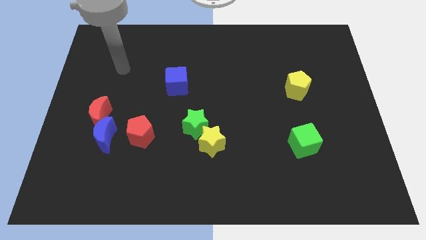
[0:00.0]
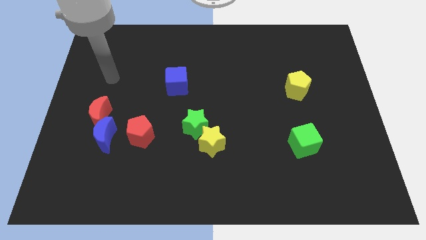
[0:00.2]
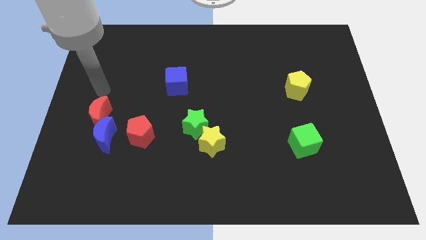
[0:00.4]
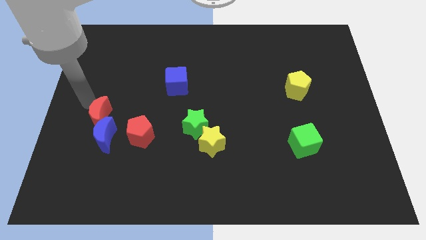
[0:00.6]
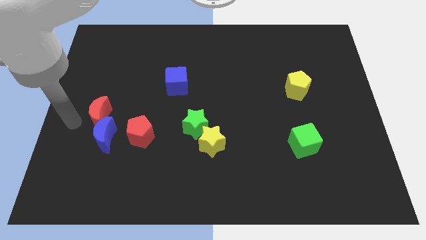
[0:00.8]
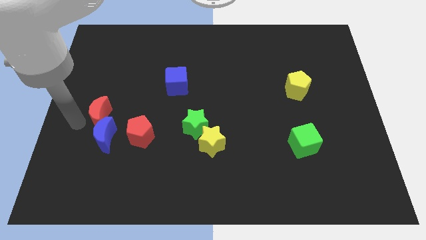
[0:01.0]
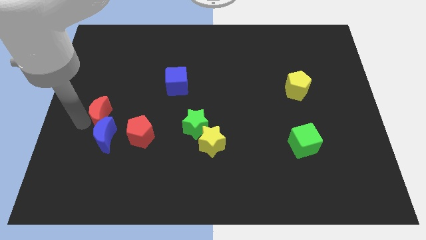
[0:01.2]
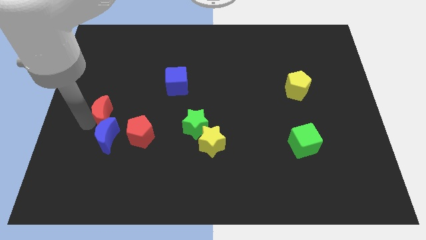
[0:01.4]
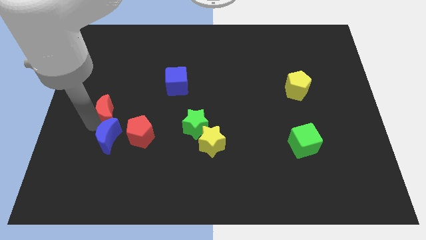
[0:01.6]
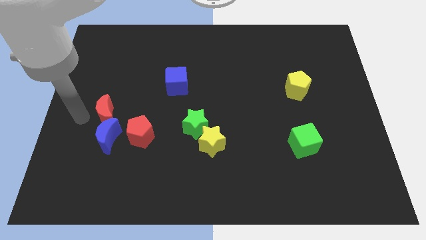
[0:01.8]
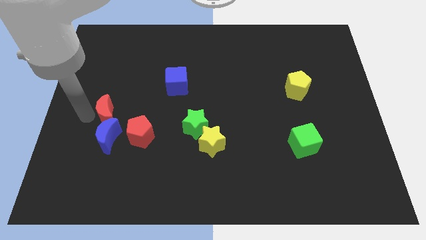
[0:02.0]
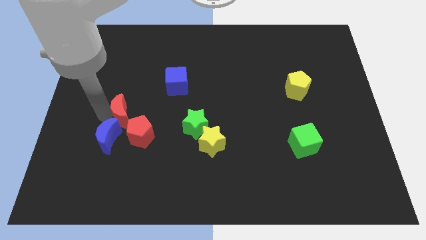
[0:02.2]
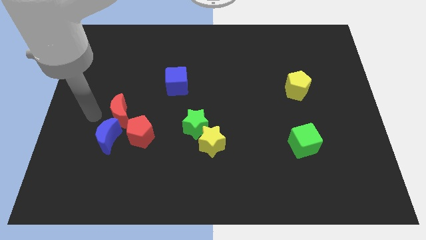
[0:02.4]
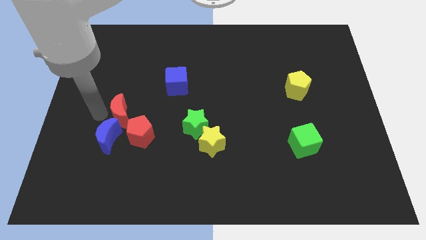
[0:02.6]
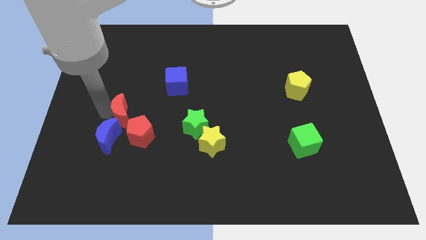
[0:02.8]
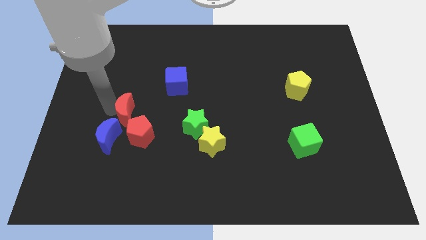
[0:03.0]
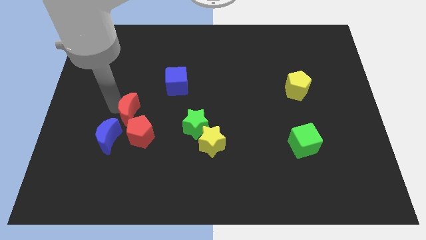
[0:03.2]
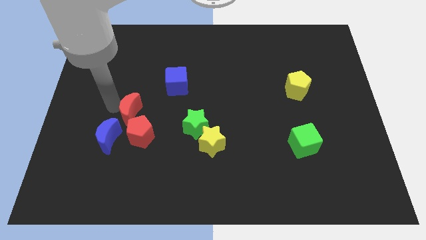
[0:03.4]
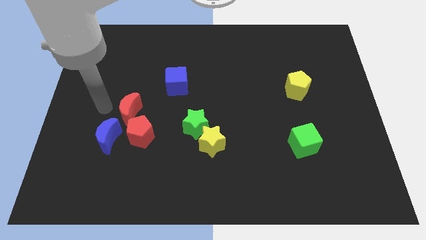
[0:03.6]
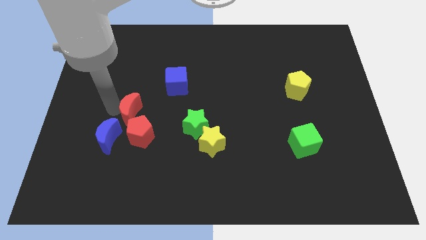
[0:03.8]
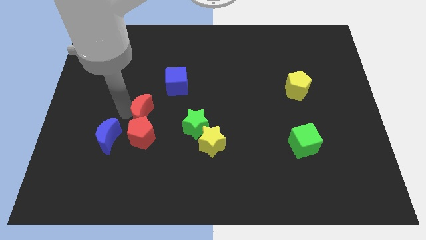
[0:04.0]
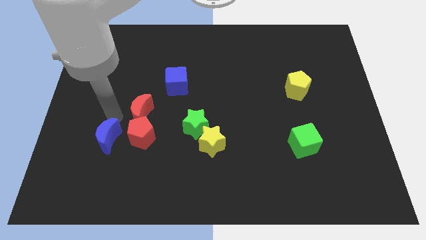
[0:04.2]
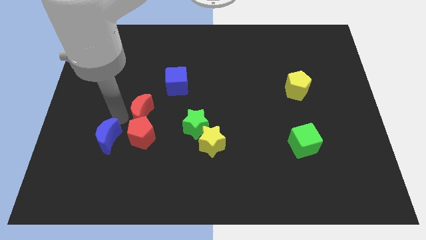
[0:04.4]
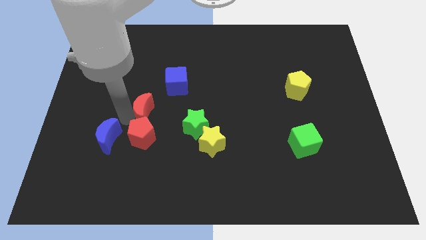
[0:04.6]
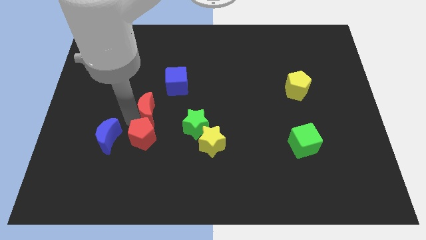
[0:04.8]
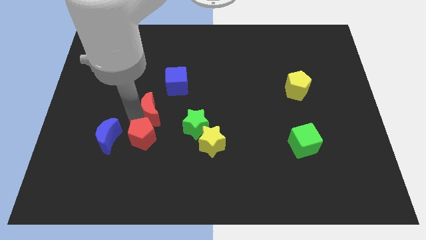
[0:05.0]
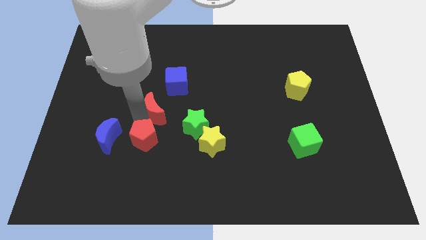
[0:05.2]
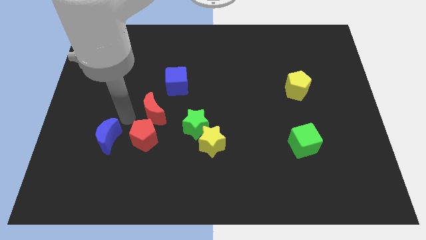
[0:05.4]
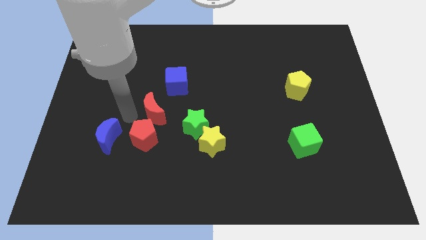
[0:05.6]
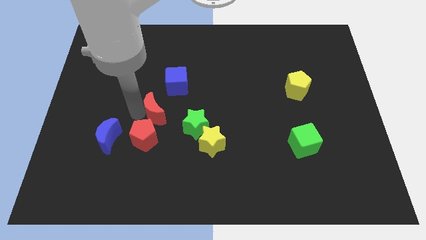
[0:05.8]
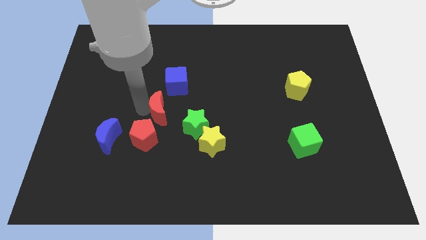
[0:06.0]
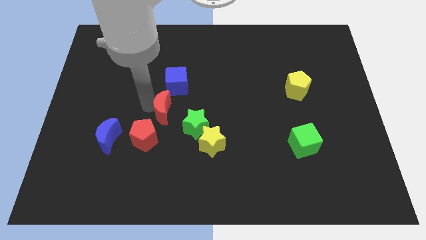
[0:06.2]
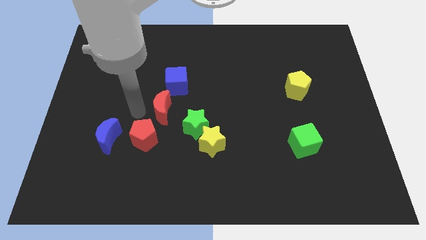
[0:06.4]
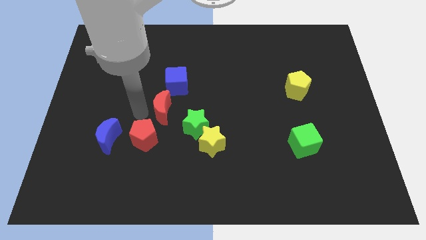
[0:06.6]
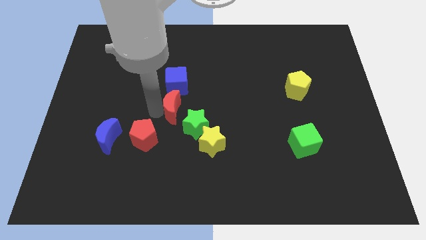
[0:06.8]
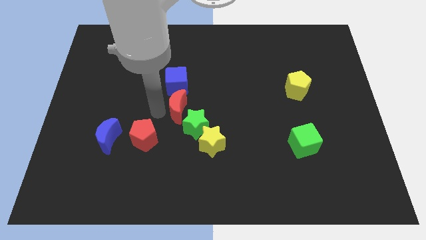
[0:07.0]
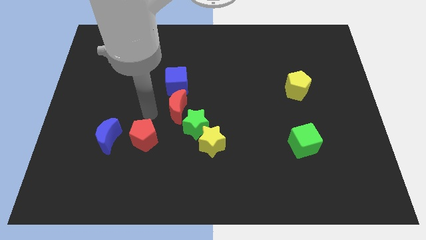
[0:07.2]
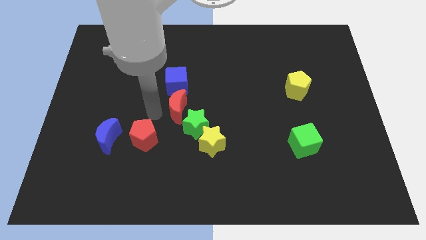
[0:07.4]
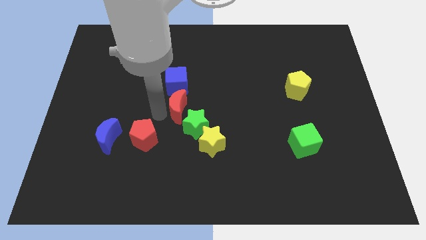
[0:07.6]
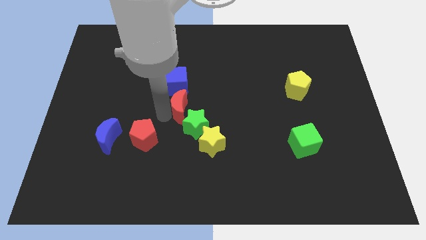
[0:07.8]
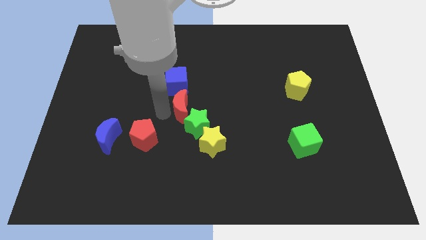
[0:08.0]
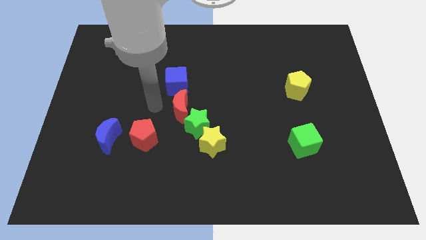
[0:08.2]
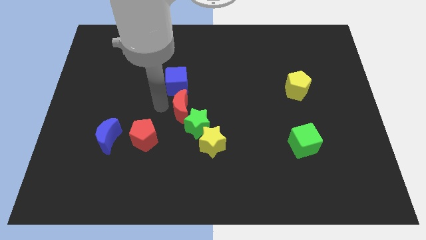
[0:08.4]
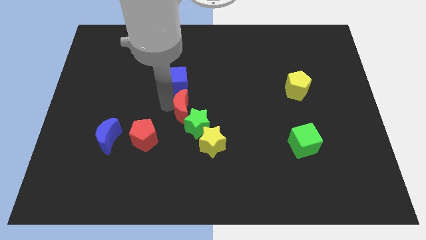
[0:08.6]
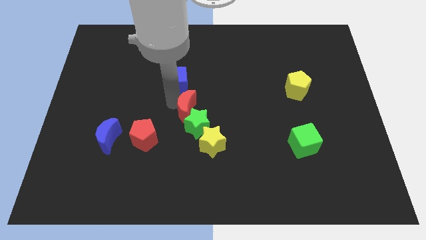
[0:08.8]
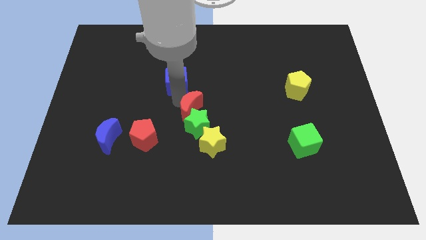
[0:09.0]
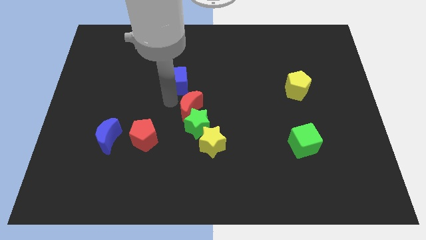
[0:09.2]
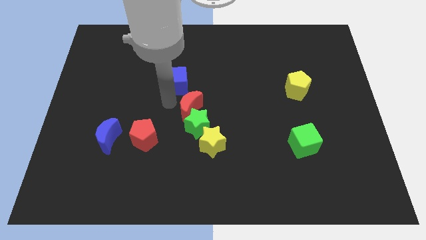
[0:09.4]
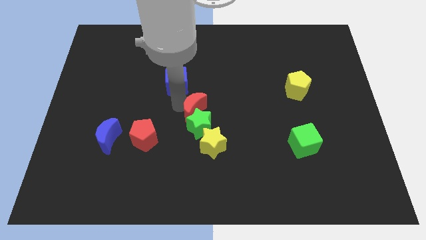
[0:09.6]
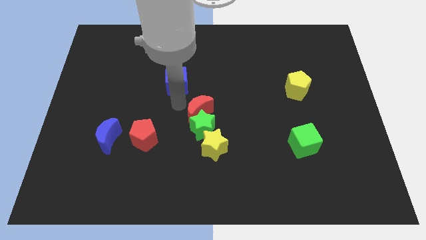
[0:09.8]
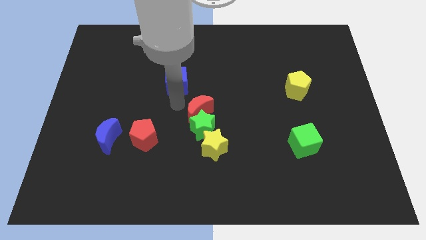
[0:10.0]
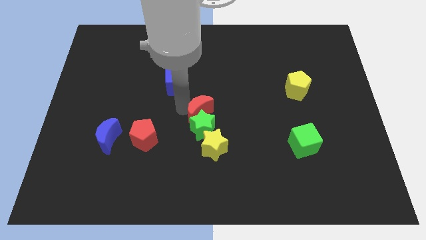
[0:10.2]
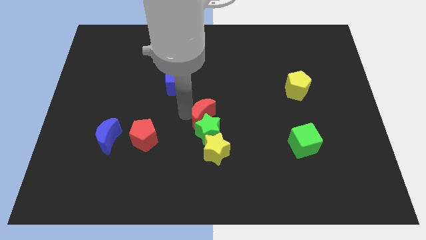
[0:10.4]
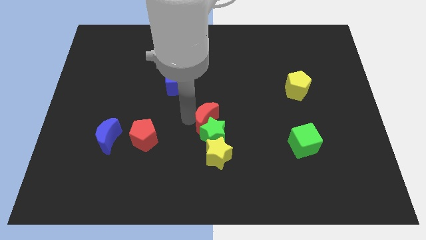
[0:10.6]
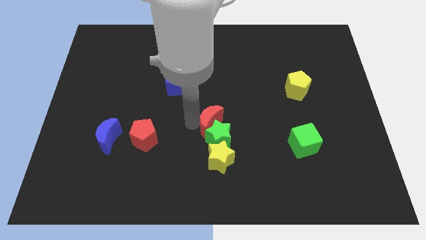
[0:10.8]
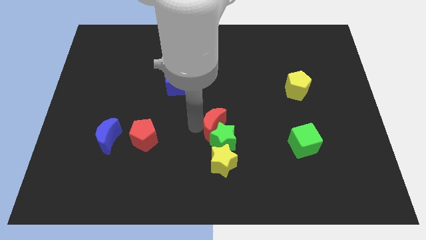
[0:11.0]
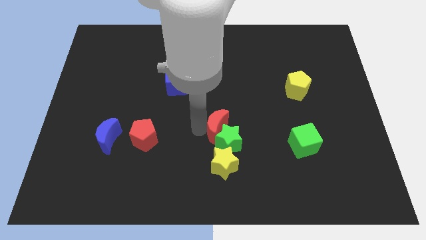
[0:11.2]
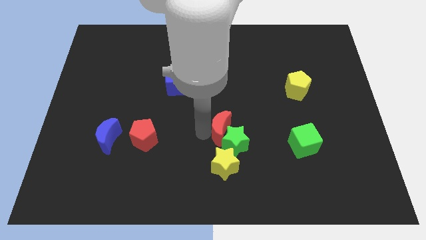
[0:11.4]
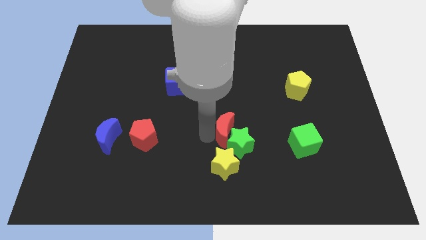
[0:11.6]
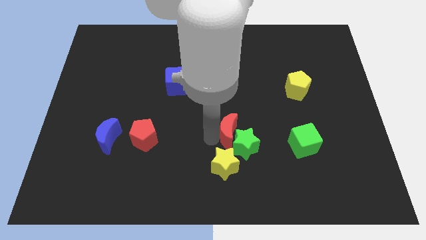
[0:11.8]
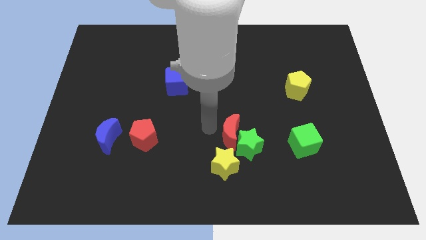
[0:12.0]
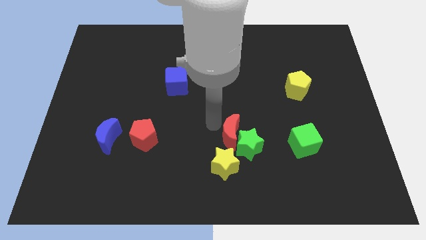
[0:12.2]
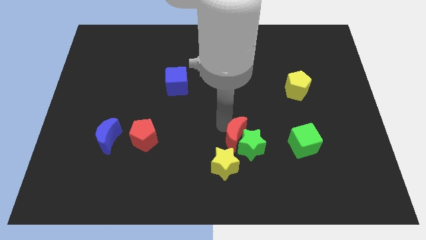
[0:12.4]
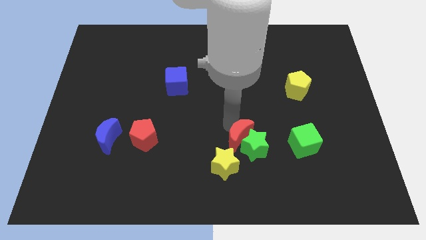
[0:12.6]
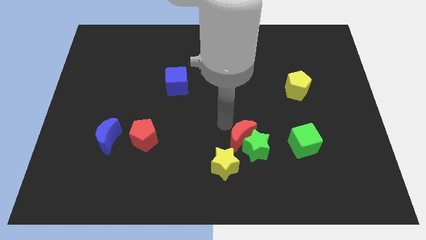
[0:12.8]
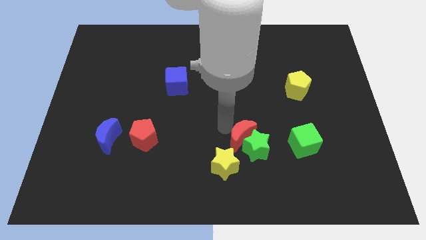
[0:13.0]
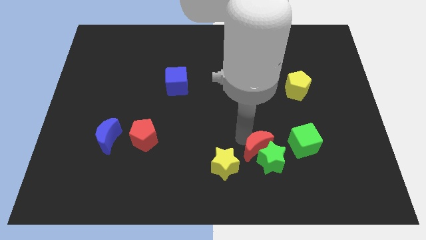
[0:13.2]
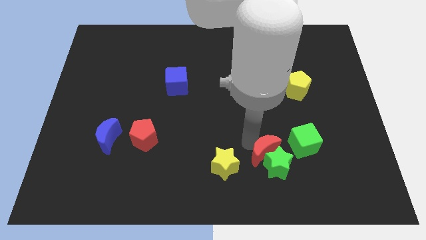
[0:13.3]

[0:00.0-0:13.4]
push the red moon to the bottom left side of the green cube
